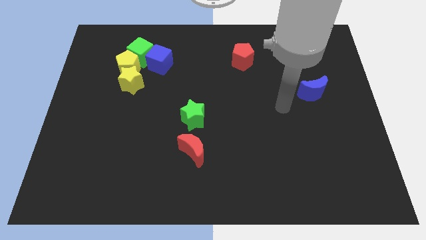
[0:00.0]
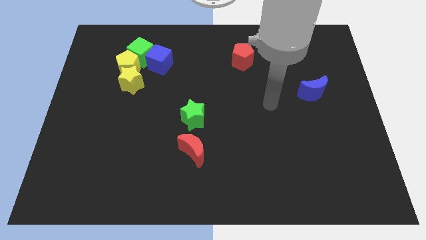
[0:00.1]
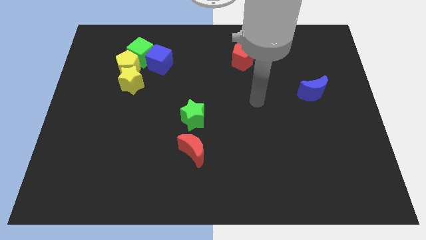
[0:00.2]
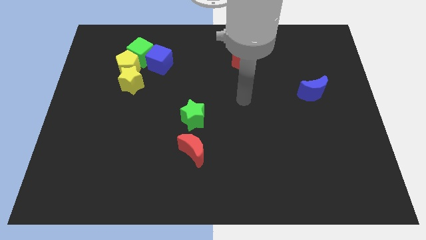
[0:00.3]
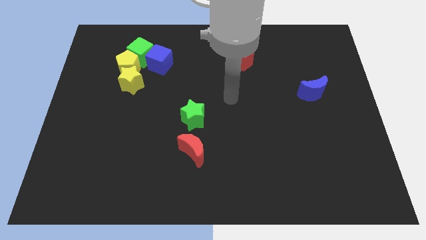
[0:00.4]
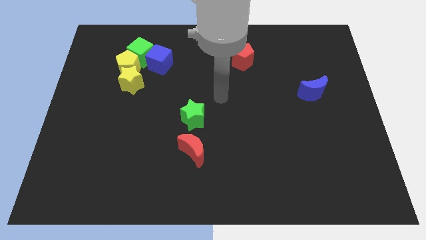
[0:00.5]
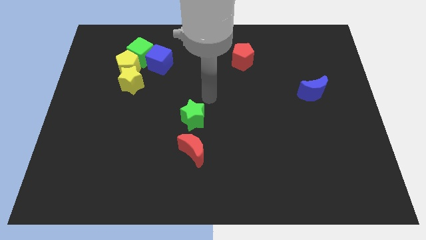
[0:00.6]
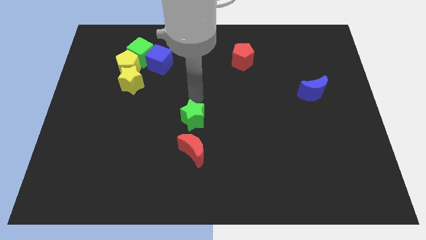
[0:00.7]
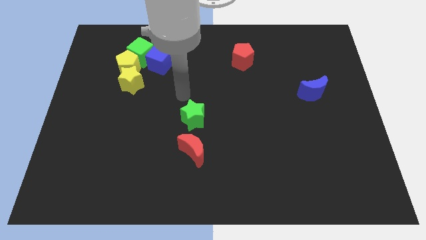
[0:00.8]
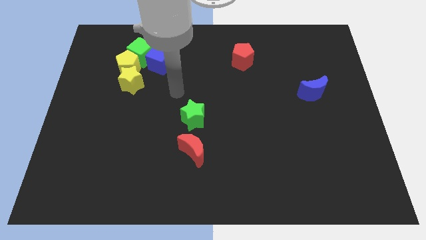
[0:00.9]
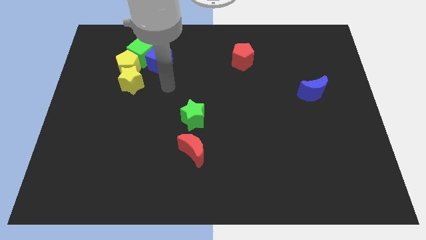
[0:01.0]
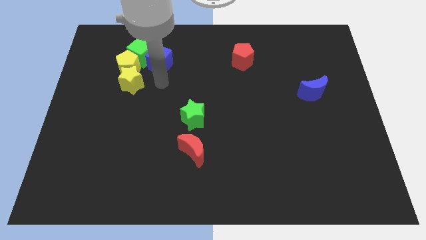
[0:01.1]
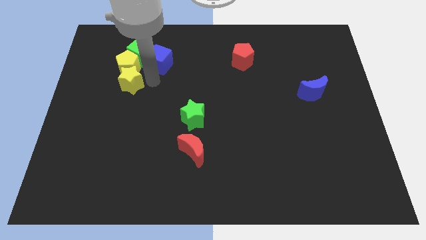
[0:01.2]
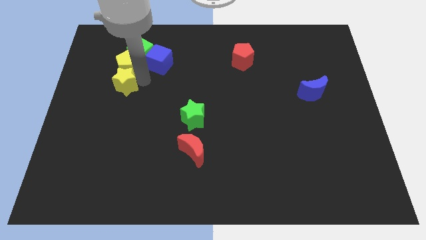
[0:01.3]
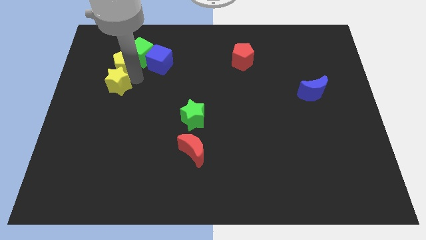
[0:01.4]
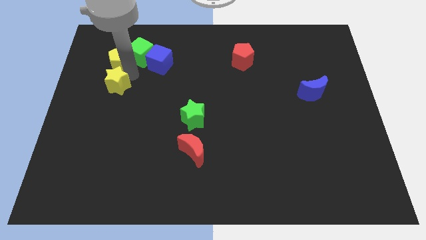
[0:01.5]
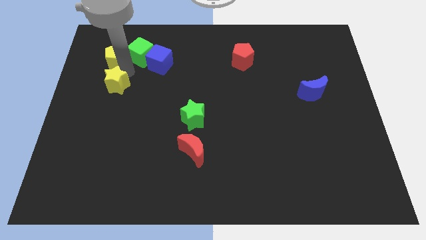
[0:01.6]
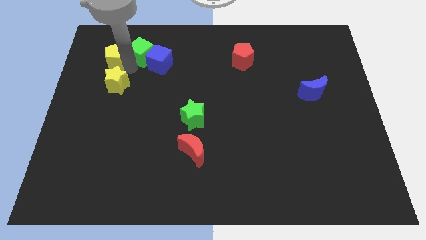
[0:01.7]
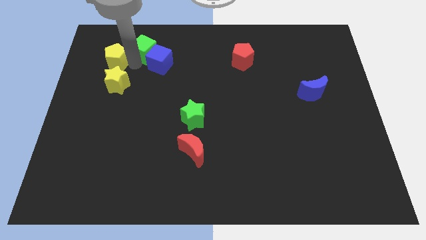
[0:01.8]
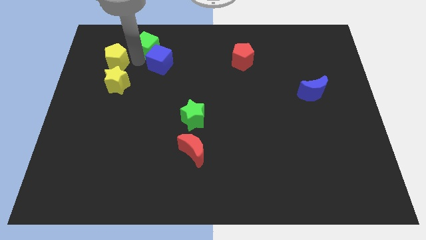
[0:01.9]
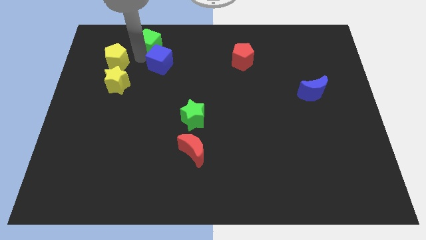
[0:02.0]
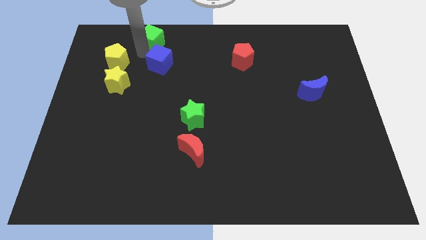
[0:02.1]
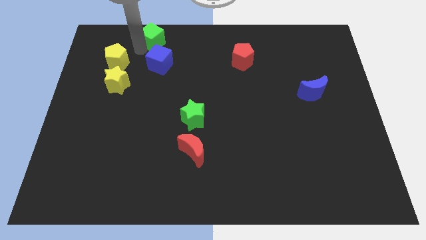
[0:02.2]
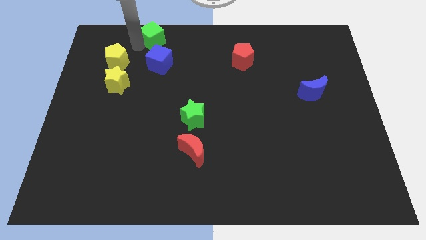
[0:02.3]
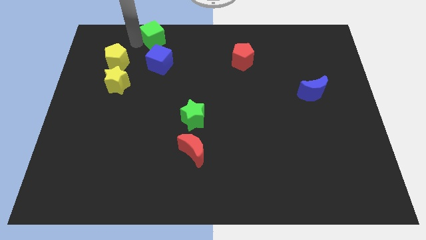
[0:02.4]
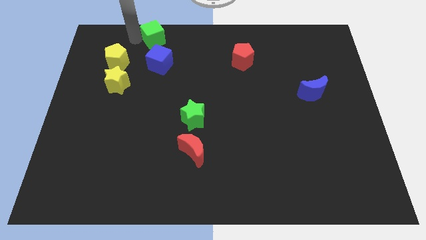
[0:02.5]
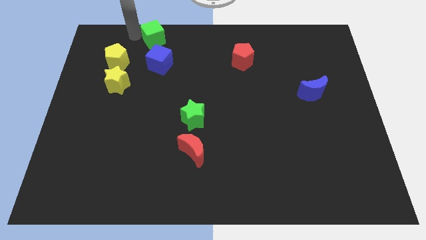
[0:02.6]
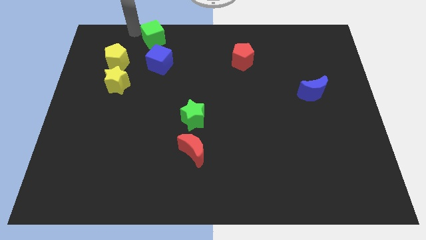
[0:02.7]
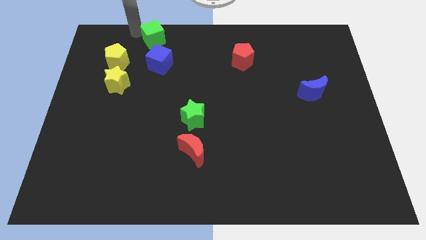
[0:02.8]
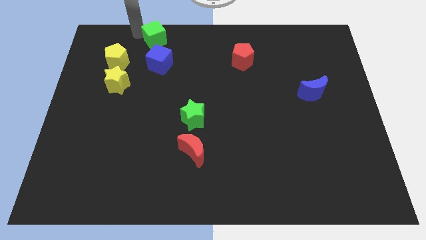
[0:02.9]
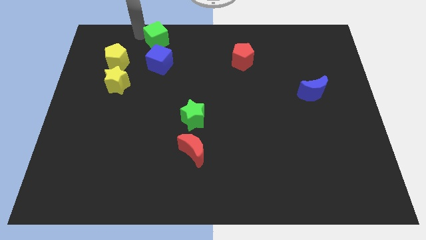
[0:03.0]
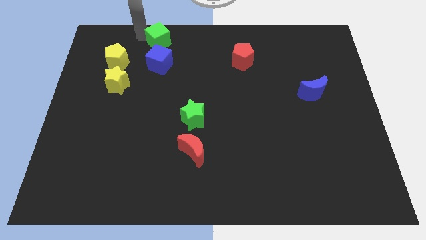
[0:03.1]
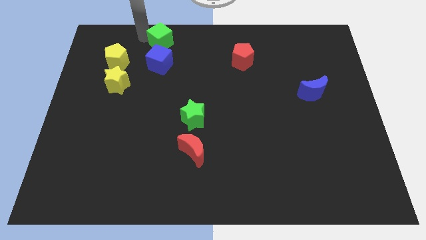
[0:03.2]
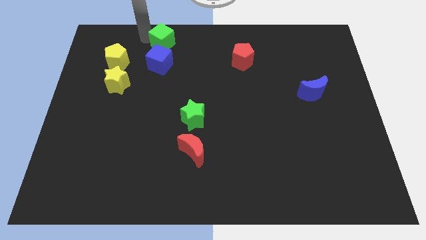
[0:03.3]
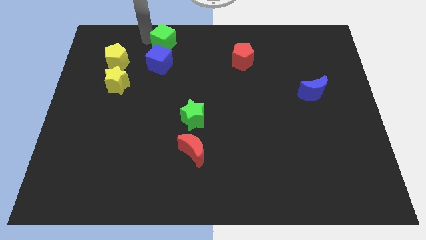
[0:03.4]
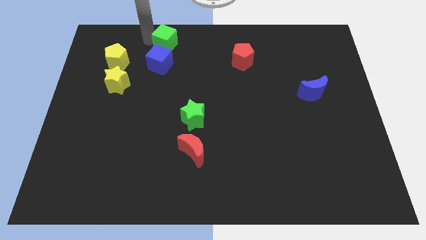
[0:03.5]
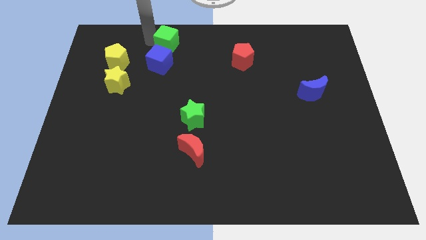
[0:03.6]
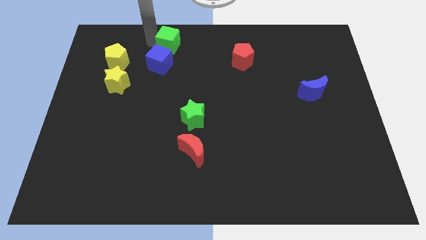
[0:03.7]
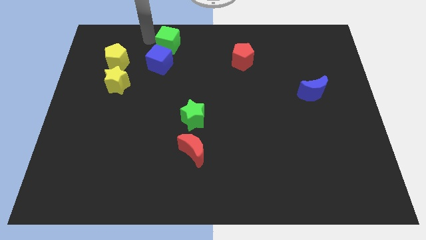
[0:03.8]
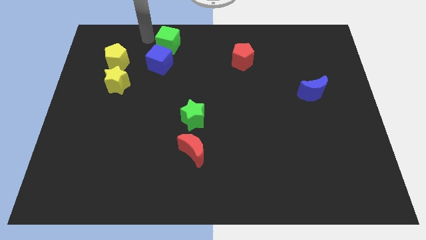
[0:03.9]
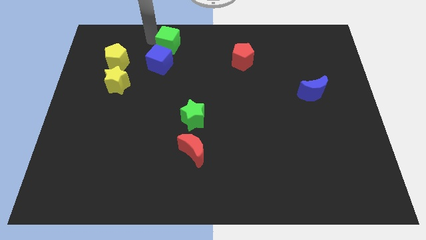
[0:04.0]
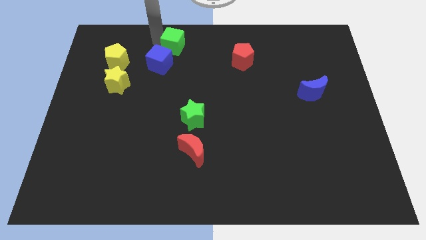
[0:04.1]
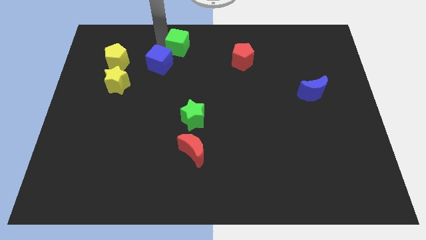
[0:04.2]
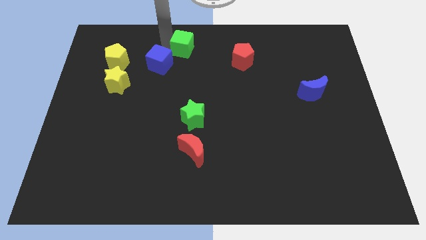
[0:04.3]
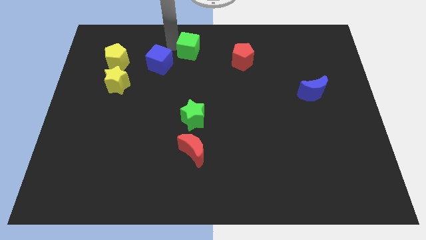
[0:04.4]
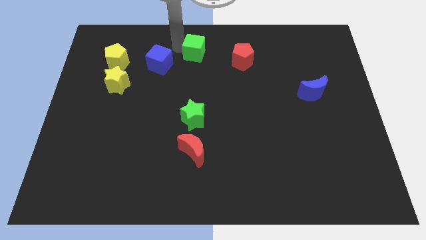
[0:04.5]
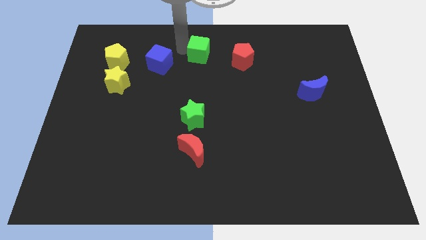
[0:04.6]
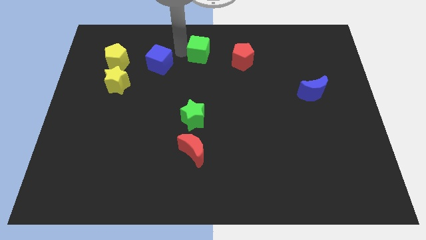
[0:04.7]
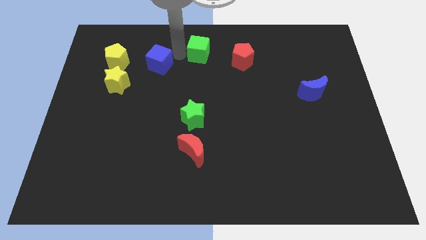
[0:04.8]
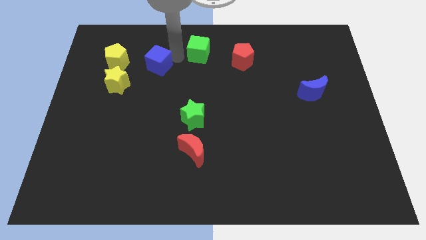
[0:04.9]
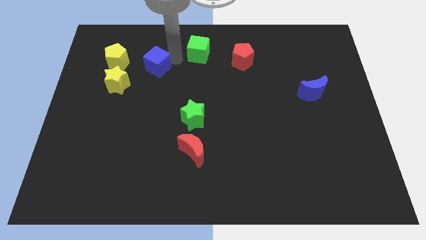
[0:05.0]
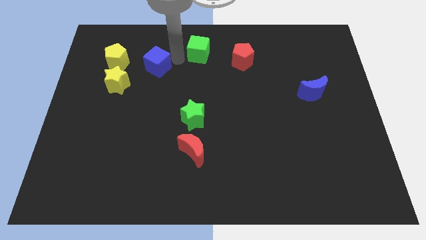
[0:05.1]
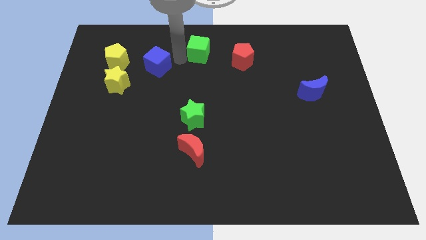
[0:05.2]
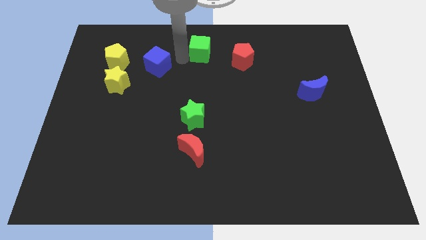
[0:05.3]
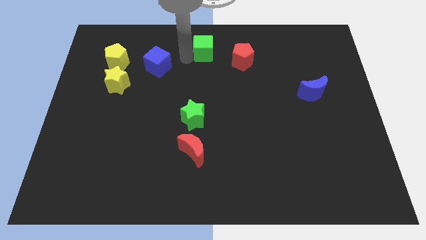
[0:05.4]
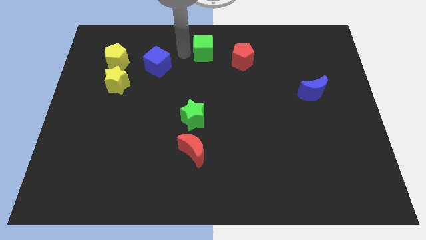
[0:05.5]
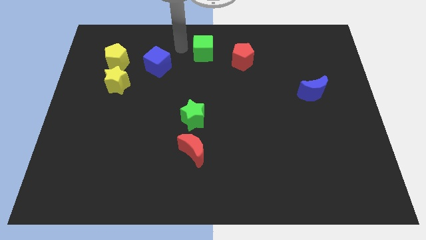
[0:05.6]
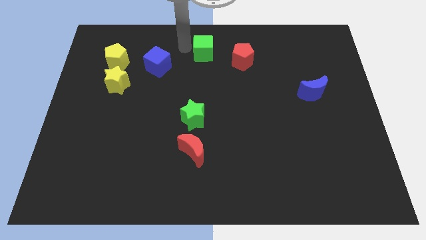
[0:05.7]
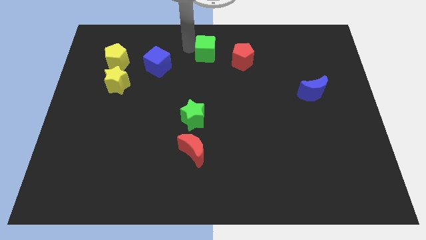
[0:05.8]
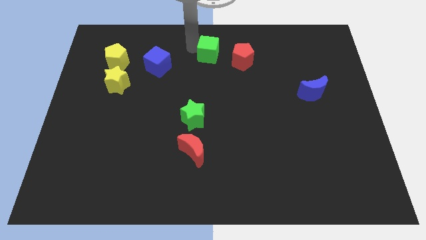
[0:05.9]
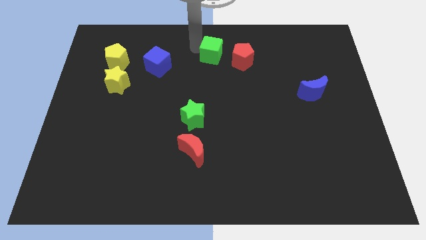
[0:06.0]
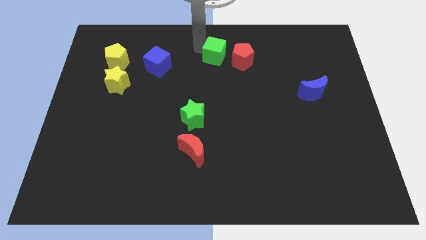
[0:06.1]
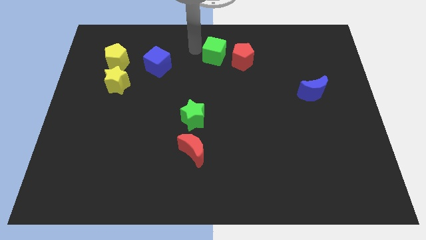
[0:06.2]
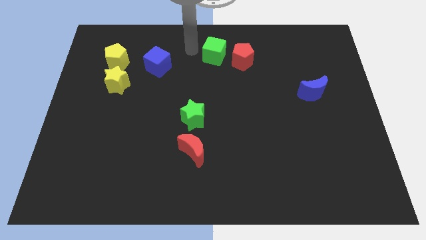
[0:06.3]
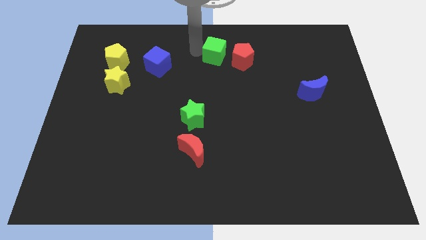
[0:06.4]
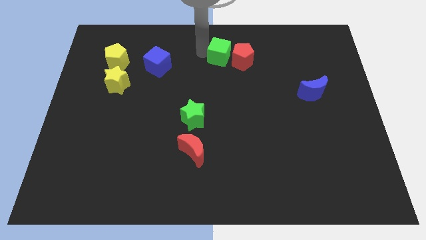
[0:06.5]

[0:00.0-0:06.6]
move the green cube close to the red pentagon

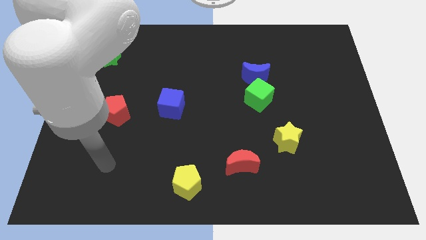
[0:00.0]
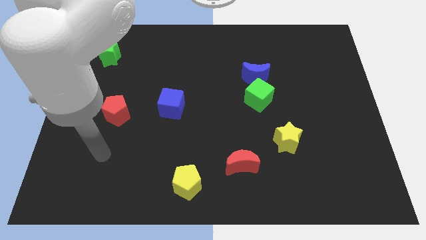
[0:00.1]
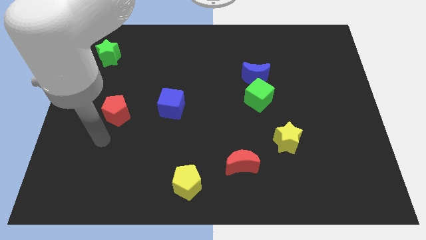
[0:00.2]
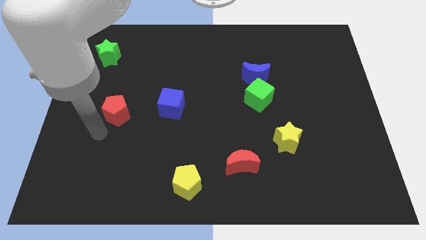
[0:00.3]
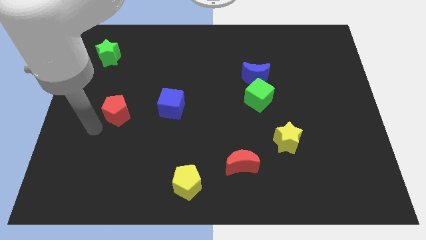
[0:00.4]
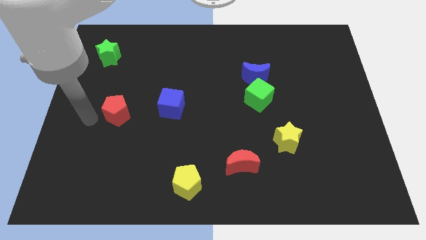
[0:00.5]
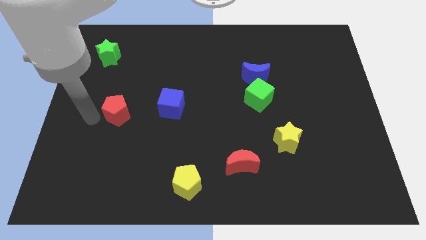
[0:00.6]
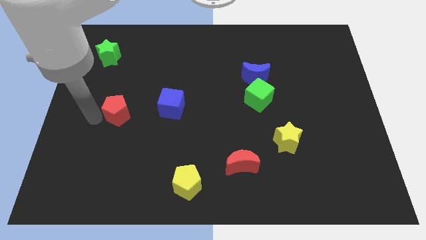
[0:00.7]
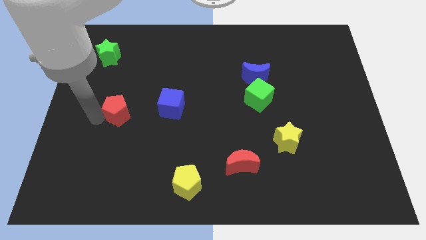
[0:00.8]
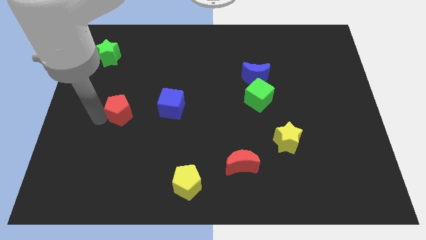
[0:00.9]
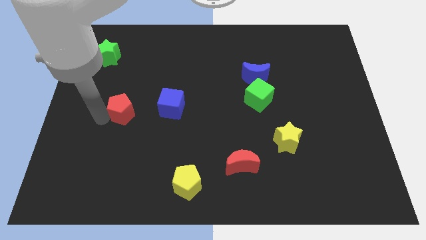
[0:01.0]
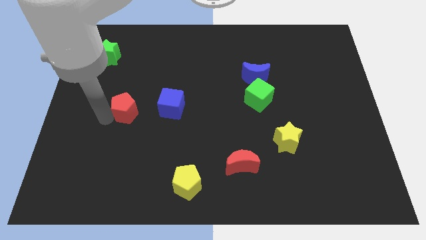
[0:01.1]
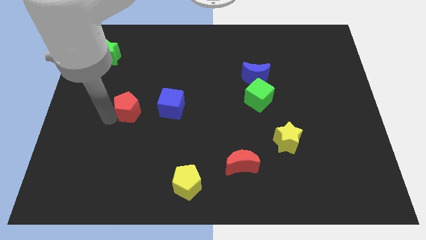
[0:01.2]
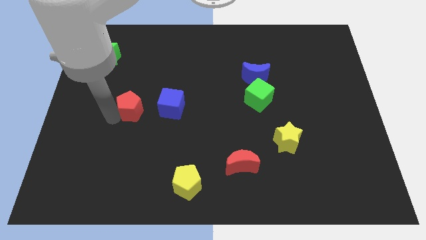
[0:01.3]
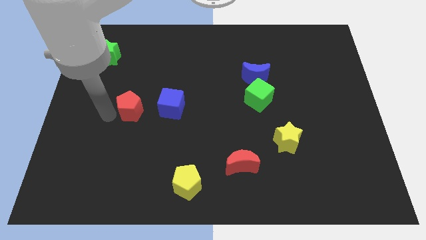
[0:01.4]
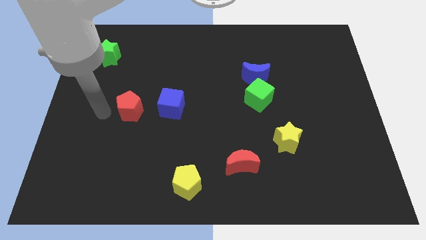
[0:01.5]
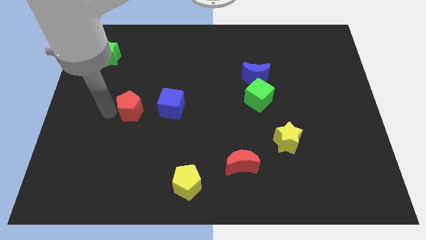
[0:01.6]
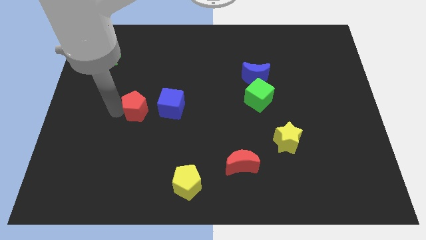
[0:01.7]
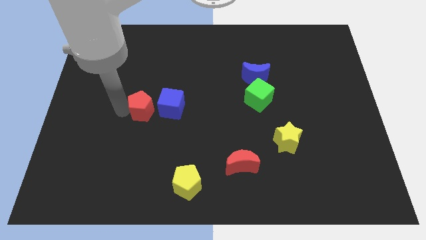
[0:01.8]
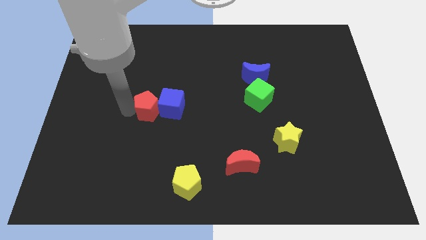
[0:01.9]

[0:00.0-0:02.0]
put the red pentagon close to the blue cube
